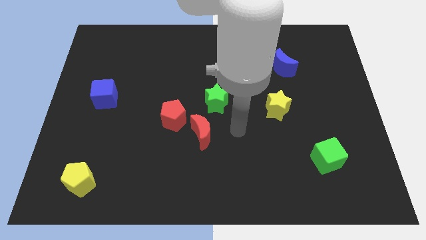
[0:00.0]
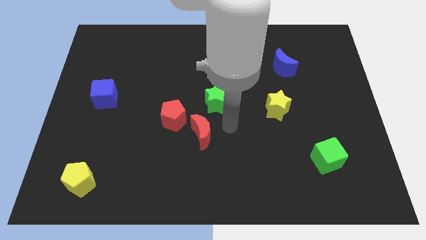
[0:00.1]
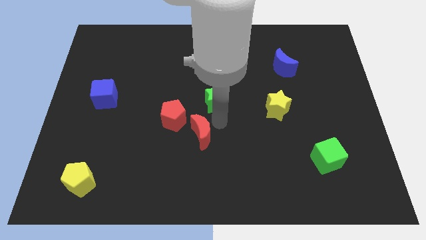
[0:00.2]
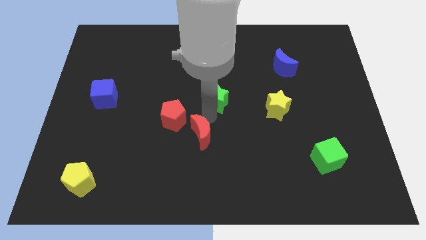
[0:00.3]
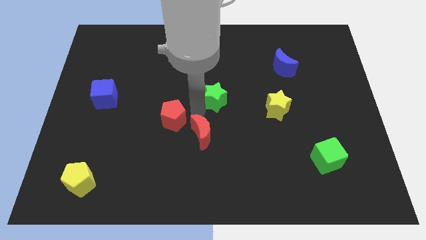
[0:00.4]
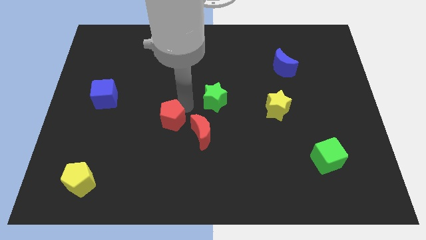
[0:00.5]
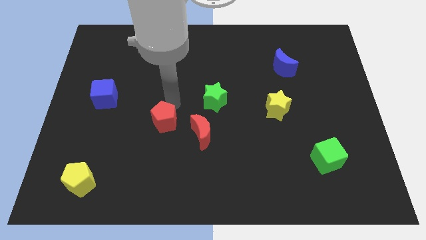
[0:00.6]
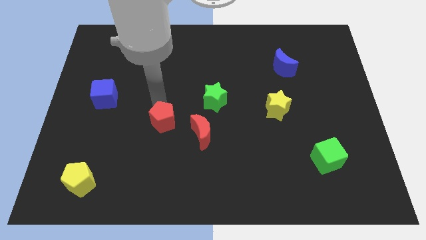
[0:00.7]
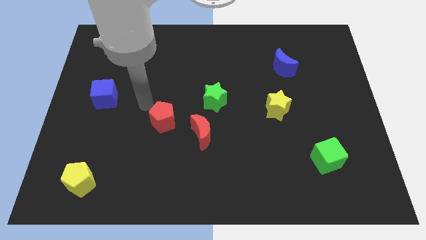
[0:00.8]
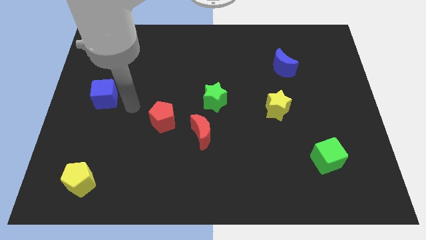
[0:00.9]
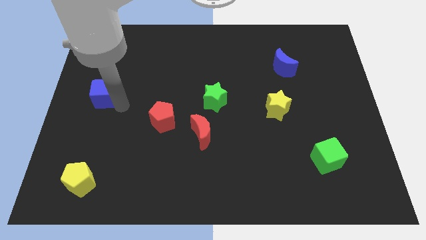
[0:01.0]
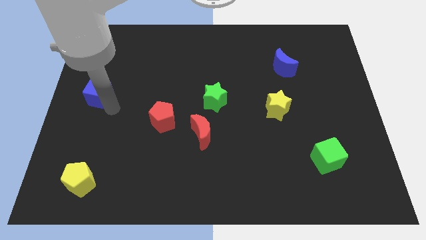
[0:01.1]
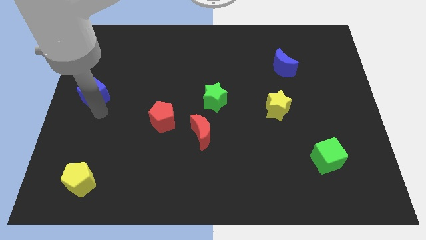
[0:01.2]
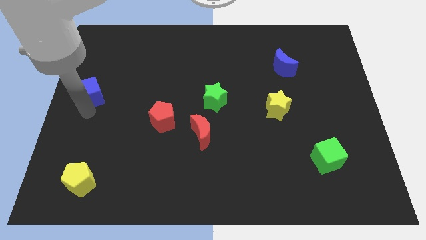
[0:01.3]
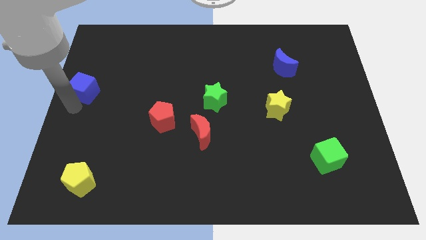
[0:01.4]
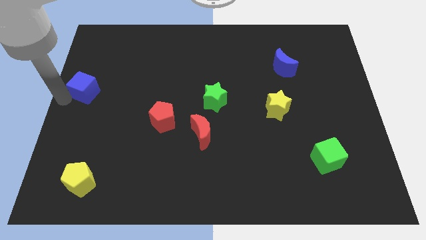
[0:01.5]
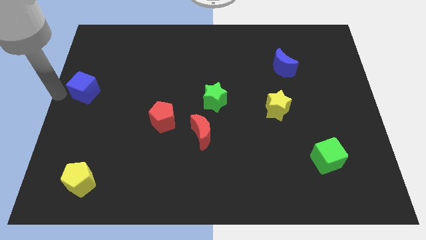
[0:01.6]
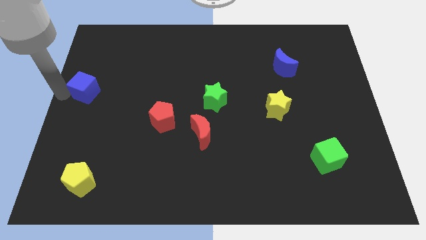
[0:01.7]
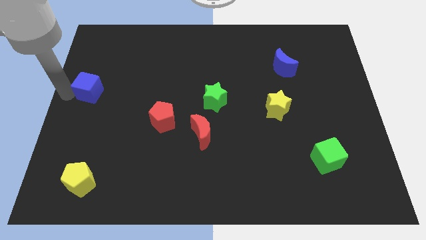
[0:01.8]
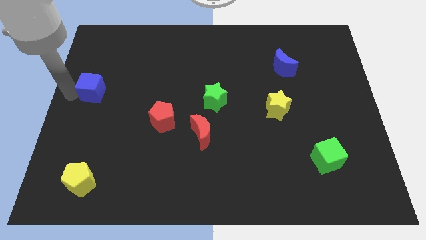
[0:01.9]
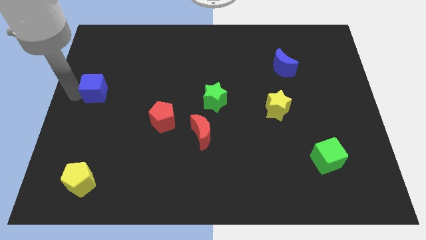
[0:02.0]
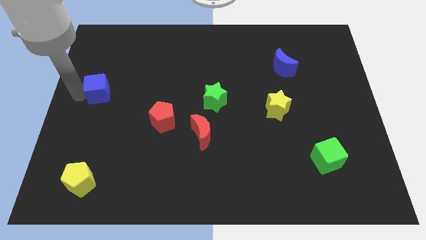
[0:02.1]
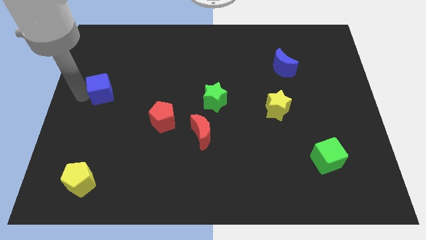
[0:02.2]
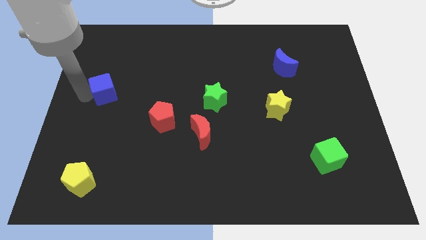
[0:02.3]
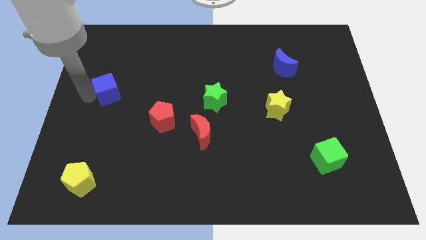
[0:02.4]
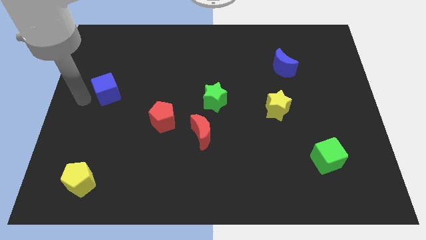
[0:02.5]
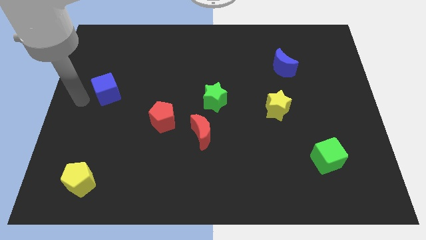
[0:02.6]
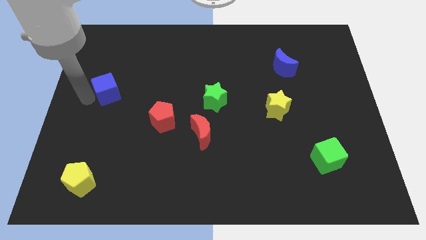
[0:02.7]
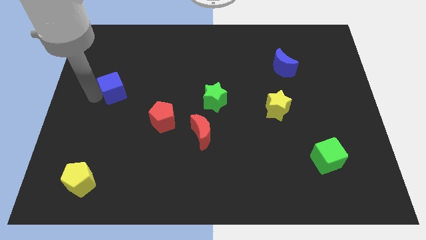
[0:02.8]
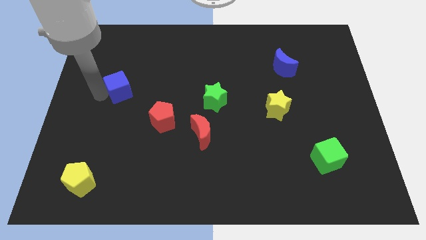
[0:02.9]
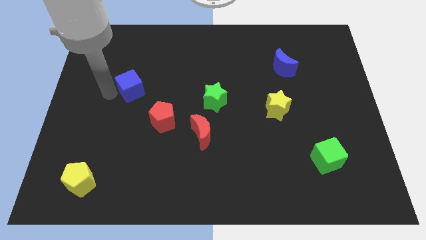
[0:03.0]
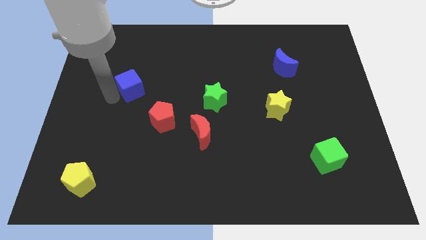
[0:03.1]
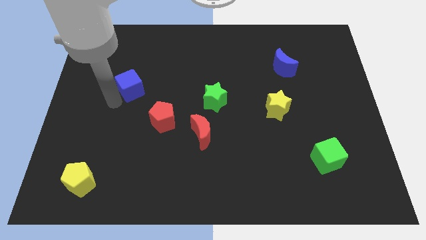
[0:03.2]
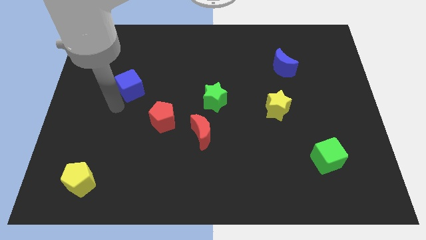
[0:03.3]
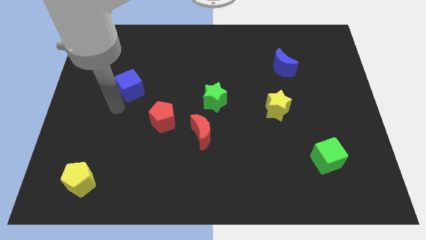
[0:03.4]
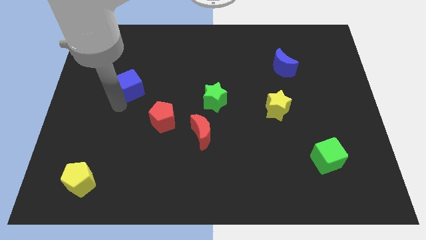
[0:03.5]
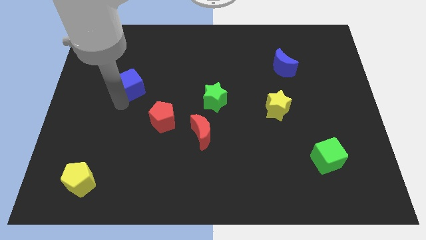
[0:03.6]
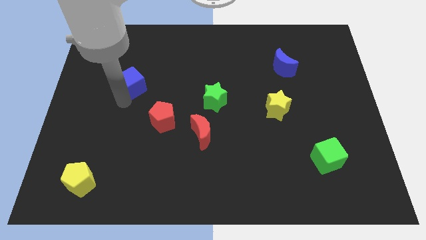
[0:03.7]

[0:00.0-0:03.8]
move the blue cube upwards and then right a little

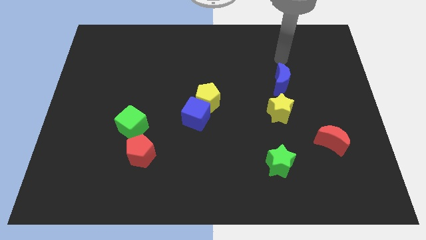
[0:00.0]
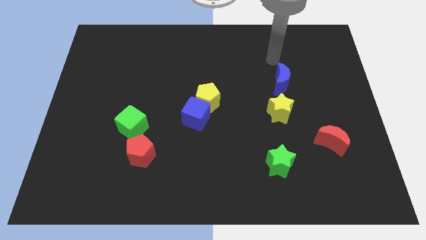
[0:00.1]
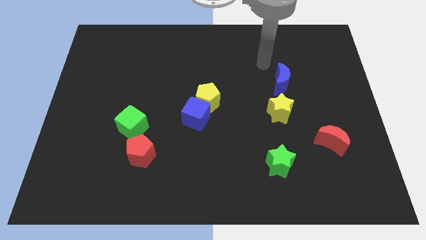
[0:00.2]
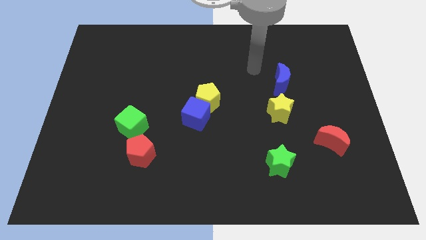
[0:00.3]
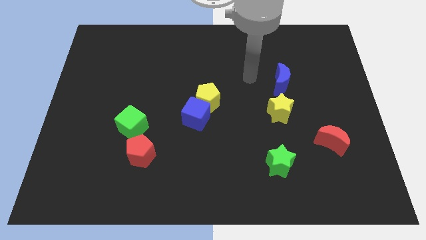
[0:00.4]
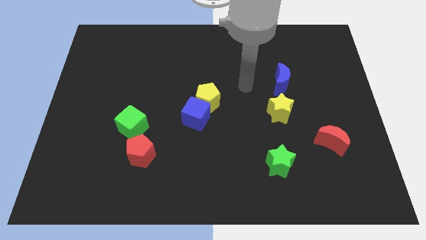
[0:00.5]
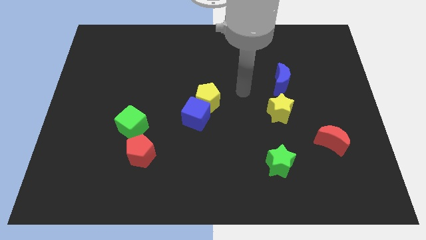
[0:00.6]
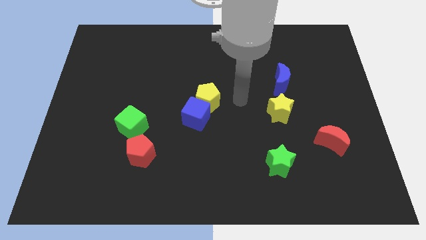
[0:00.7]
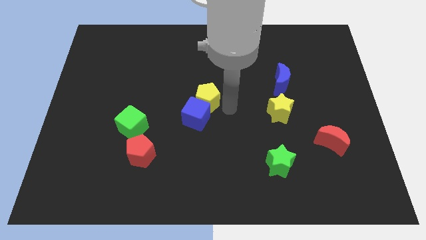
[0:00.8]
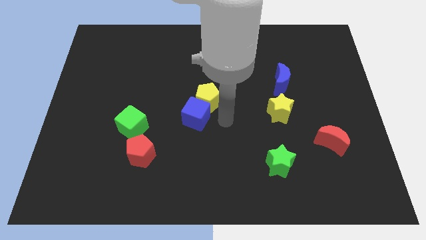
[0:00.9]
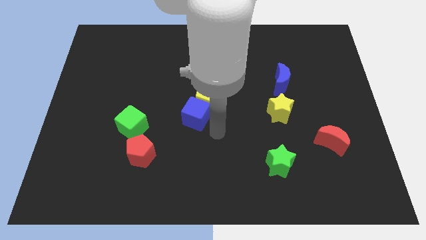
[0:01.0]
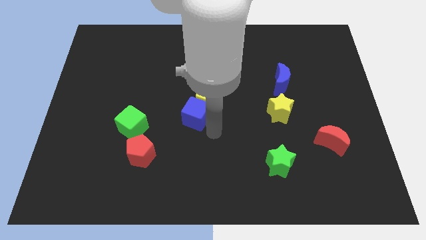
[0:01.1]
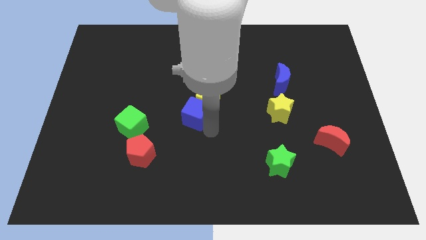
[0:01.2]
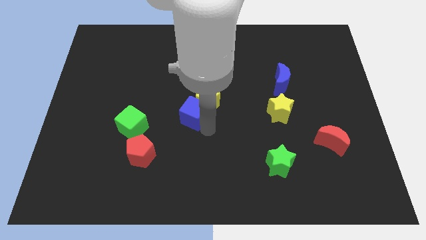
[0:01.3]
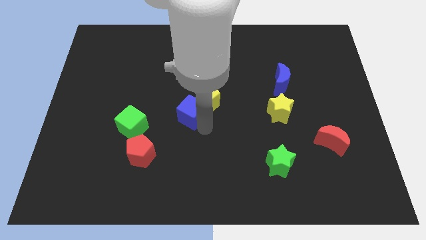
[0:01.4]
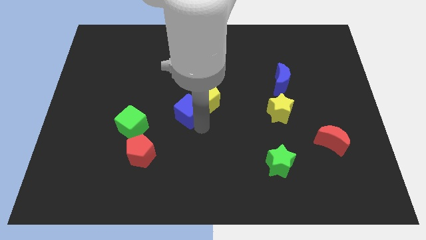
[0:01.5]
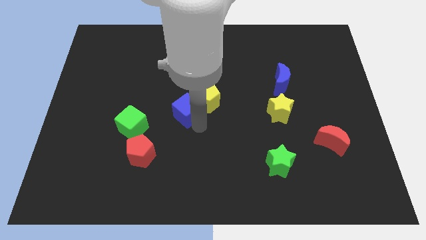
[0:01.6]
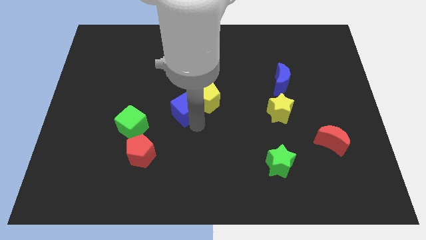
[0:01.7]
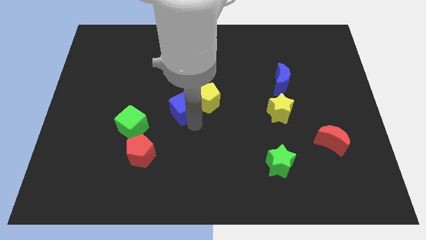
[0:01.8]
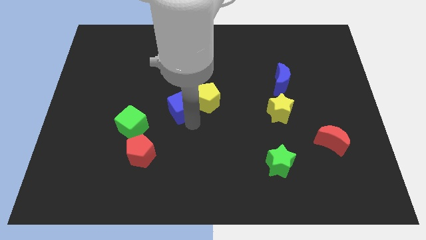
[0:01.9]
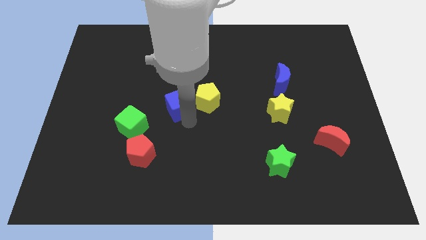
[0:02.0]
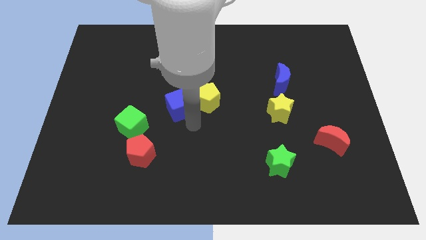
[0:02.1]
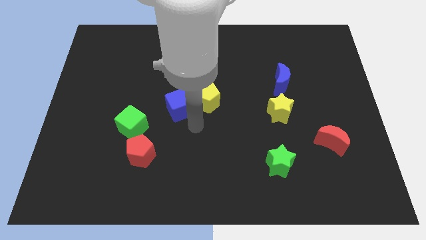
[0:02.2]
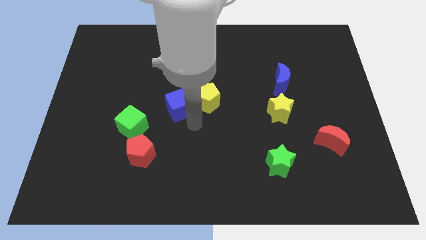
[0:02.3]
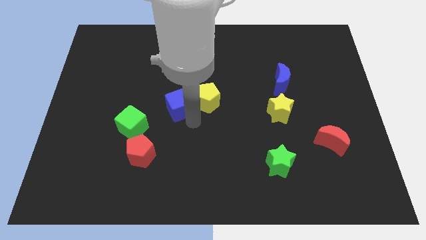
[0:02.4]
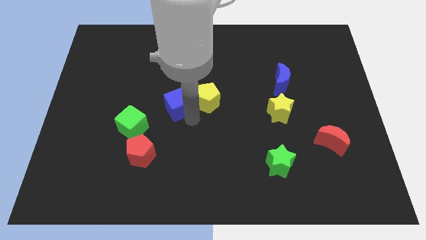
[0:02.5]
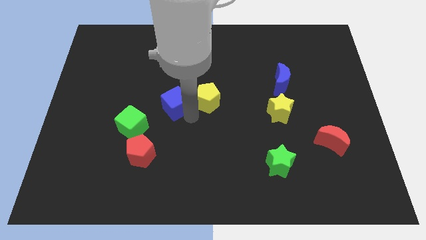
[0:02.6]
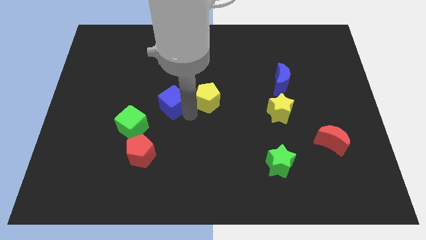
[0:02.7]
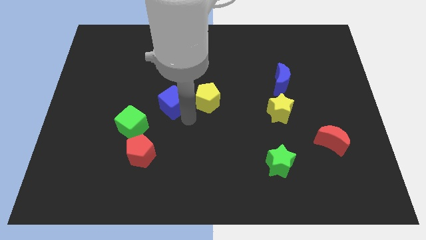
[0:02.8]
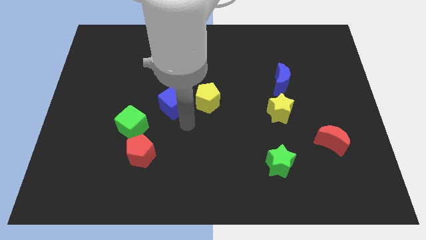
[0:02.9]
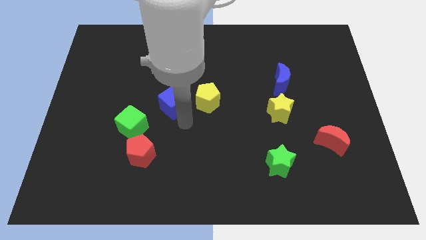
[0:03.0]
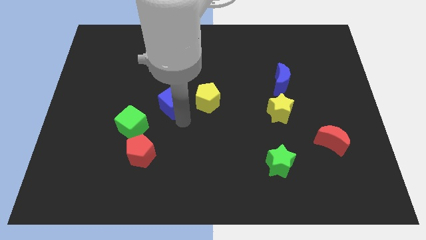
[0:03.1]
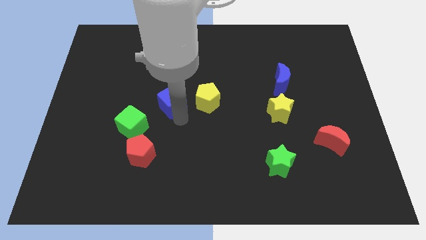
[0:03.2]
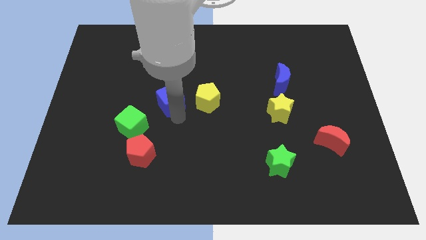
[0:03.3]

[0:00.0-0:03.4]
slide the blue cube a bit upwards and then left

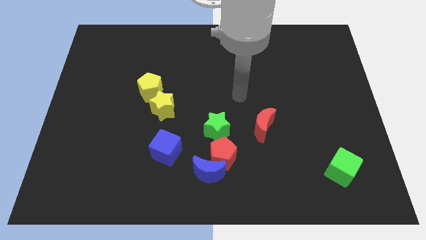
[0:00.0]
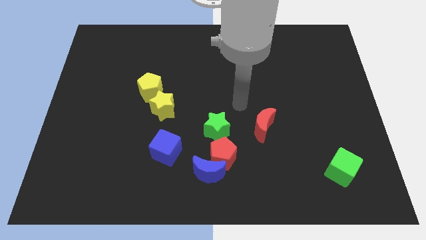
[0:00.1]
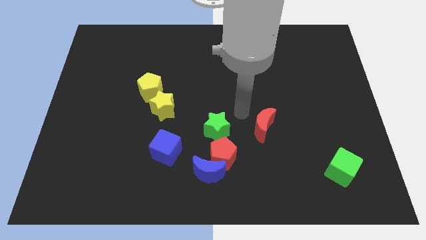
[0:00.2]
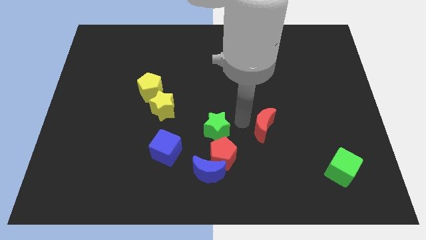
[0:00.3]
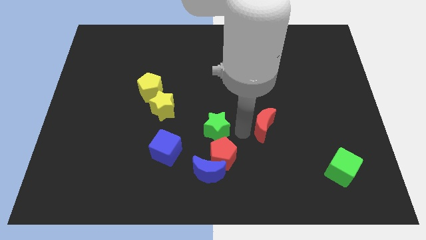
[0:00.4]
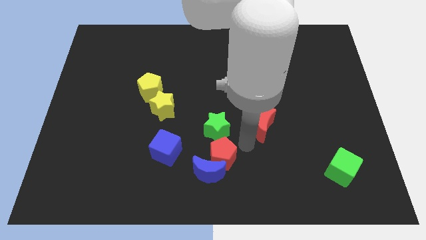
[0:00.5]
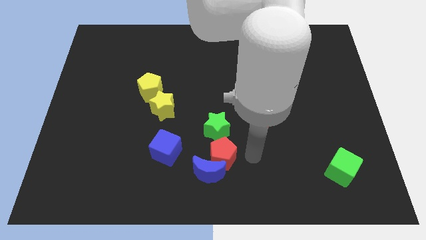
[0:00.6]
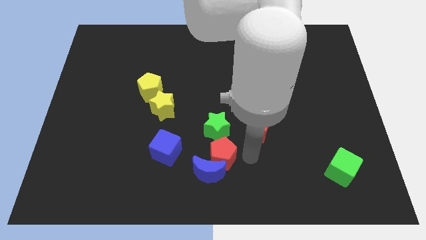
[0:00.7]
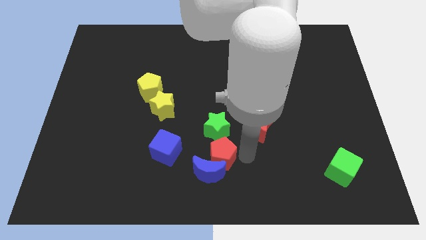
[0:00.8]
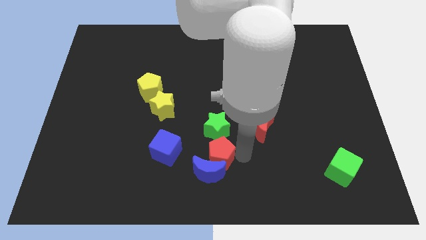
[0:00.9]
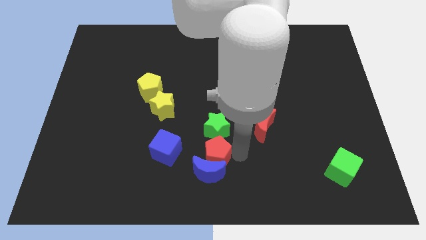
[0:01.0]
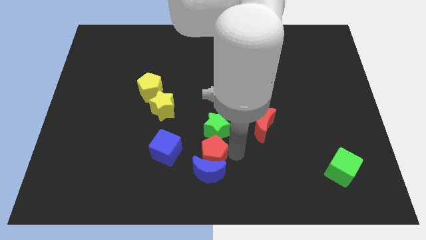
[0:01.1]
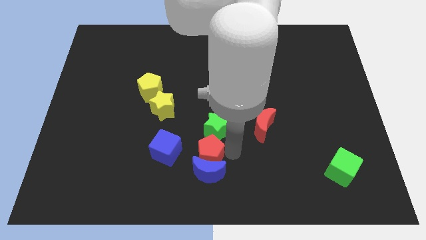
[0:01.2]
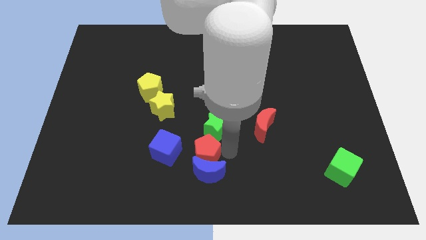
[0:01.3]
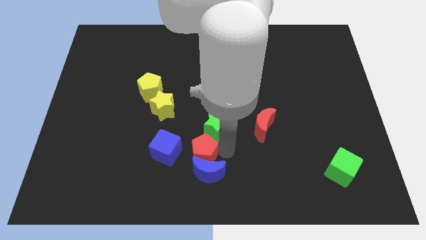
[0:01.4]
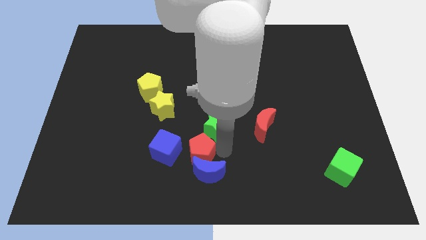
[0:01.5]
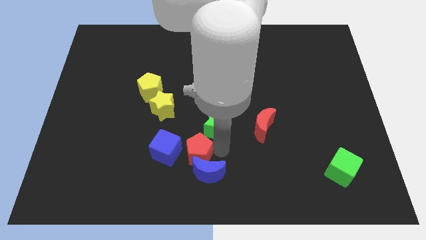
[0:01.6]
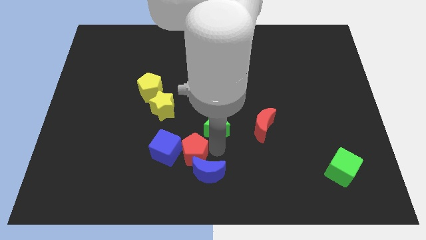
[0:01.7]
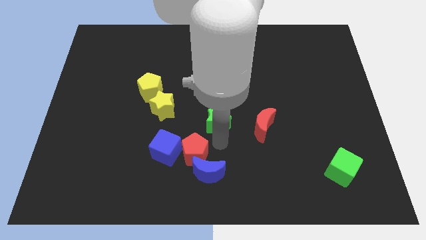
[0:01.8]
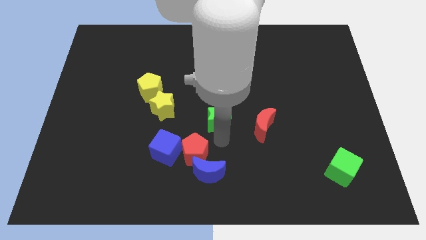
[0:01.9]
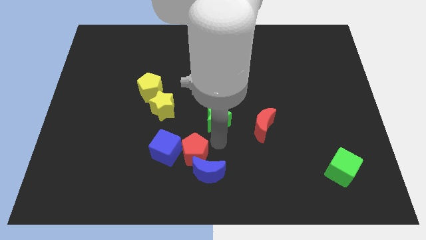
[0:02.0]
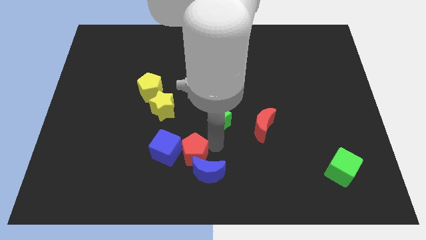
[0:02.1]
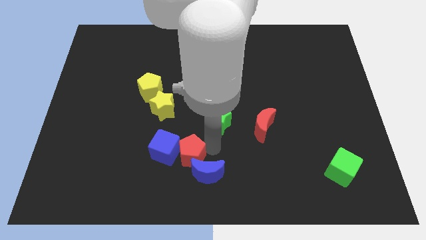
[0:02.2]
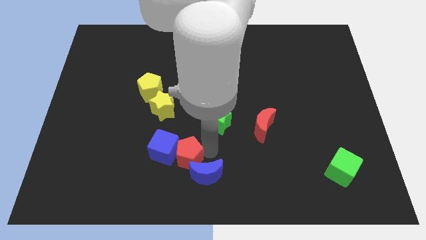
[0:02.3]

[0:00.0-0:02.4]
slide the red pentagon left a little
